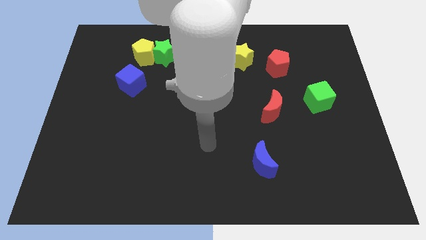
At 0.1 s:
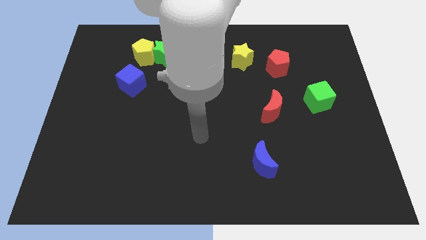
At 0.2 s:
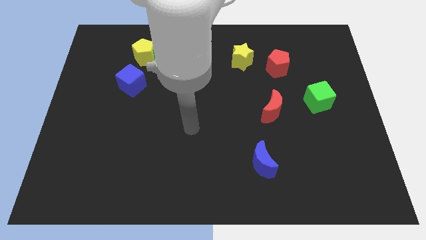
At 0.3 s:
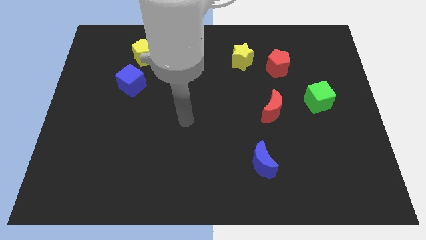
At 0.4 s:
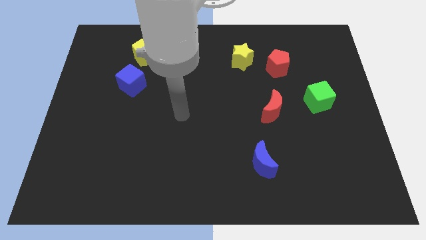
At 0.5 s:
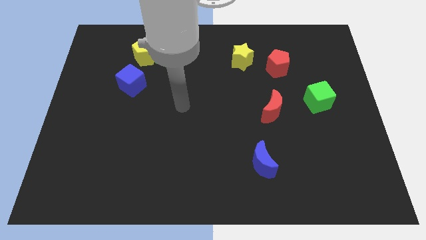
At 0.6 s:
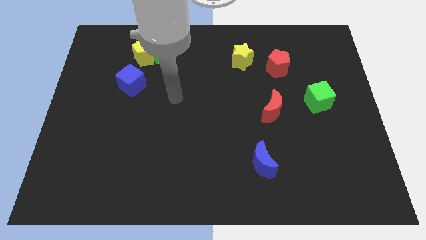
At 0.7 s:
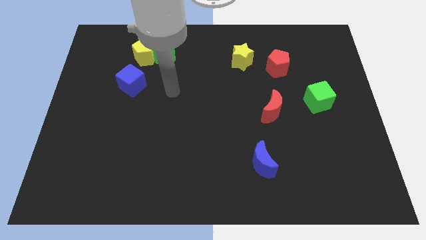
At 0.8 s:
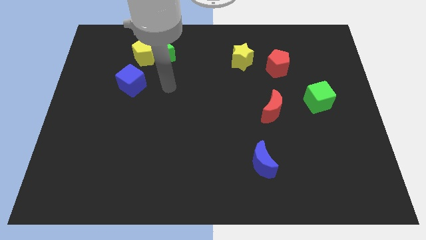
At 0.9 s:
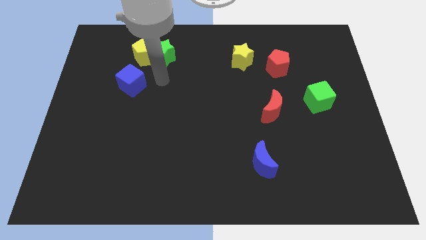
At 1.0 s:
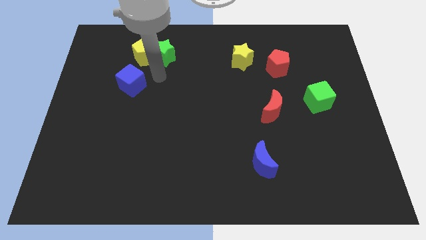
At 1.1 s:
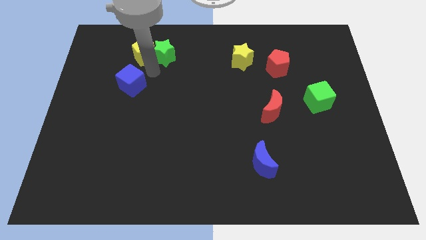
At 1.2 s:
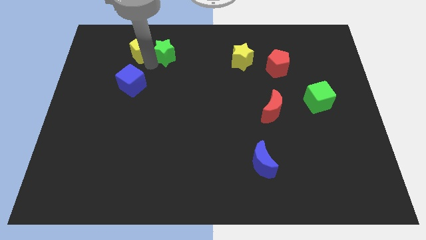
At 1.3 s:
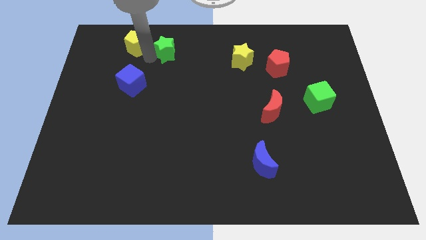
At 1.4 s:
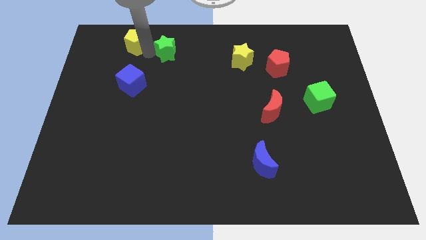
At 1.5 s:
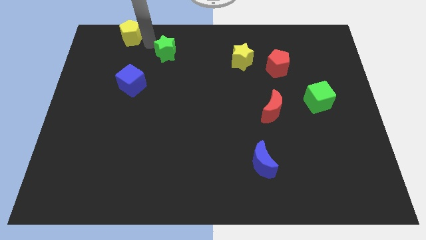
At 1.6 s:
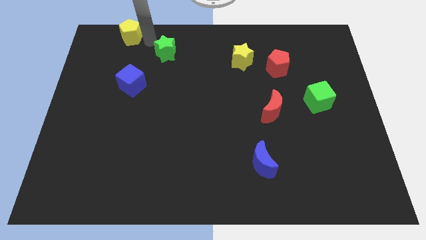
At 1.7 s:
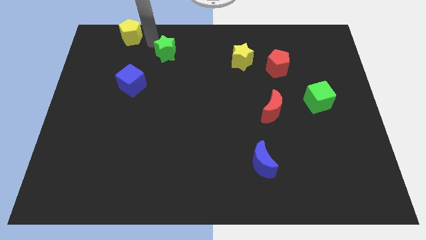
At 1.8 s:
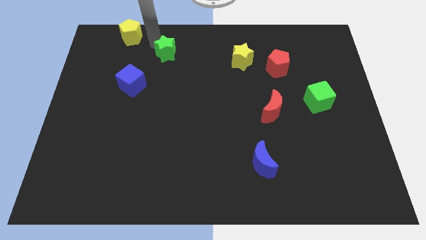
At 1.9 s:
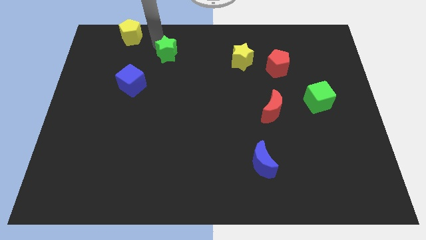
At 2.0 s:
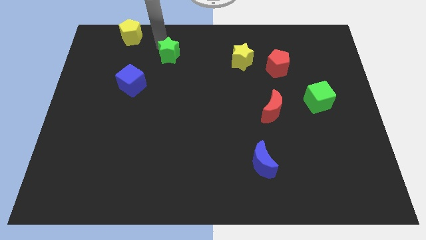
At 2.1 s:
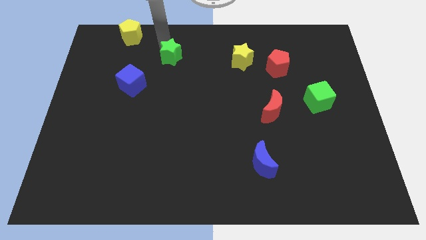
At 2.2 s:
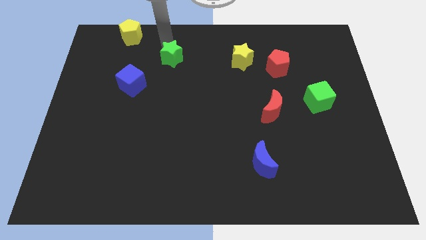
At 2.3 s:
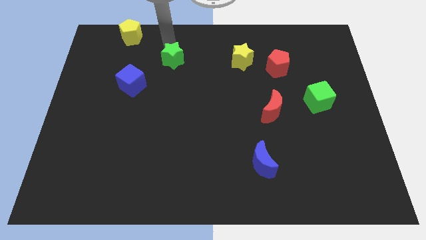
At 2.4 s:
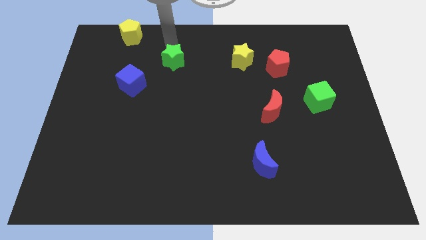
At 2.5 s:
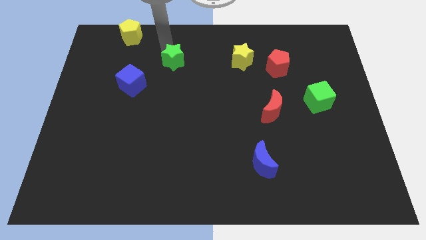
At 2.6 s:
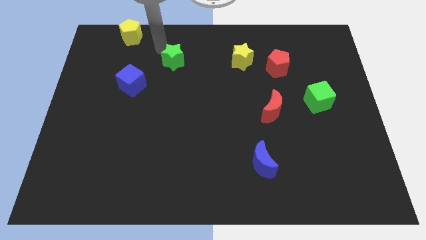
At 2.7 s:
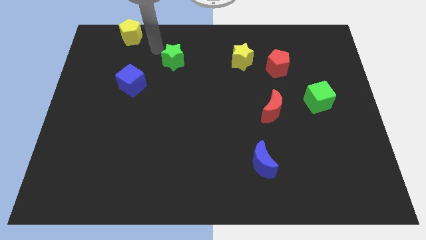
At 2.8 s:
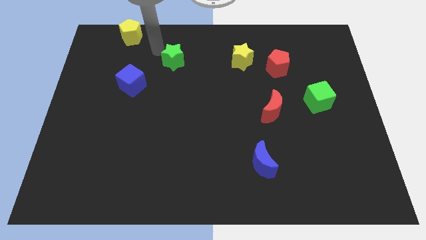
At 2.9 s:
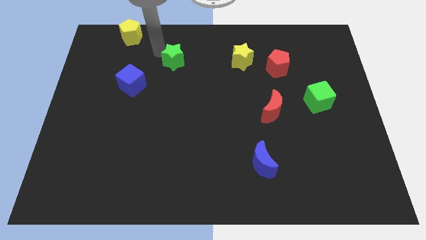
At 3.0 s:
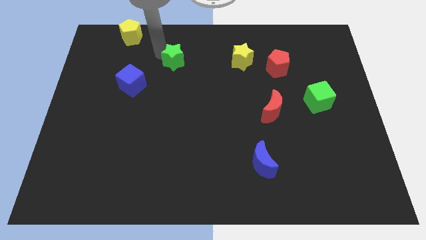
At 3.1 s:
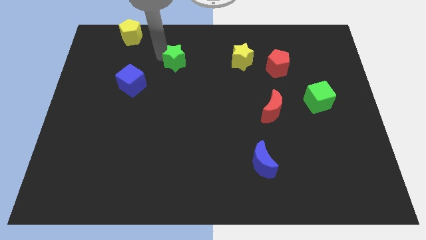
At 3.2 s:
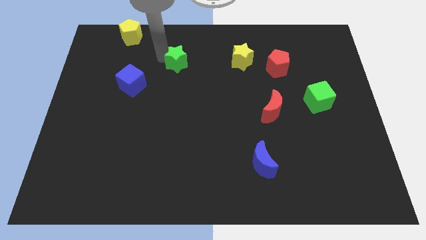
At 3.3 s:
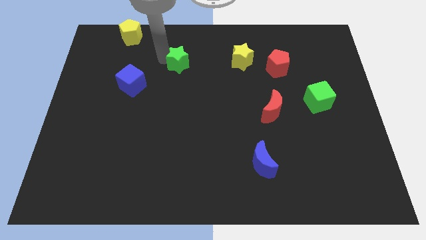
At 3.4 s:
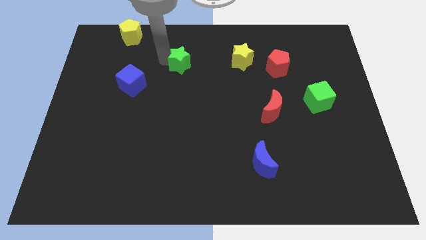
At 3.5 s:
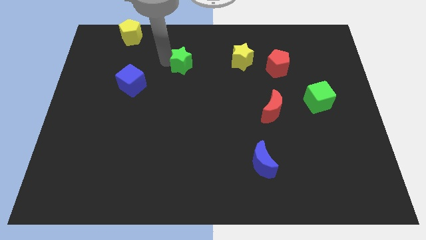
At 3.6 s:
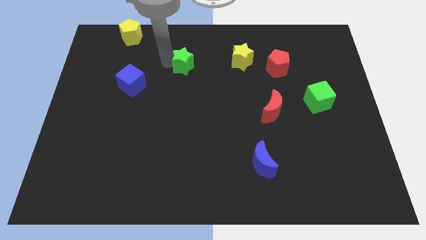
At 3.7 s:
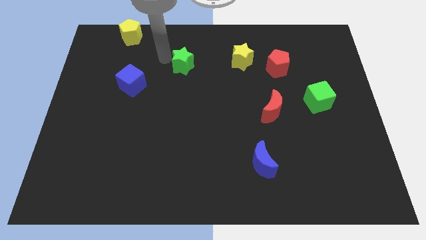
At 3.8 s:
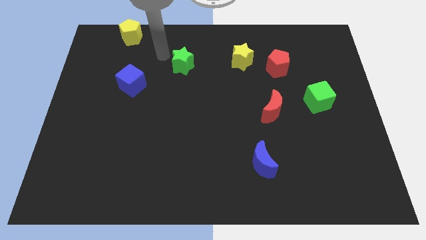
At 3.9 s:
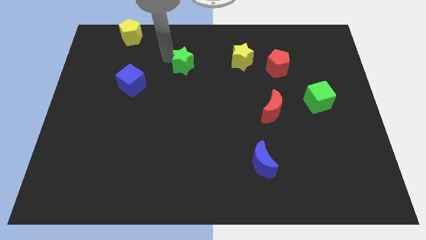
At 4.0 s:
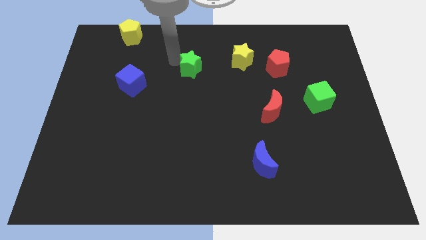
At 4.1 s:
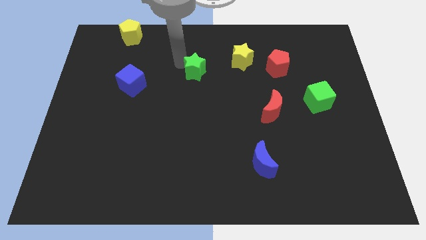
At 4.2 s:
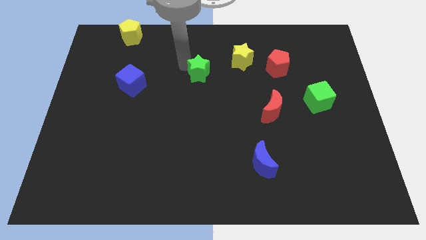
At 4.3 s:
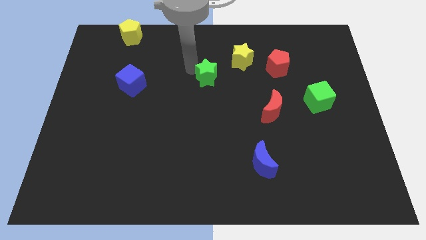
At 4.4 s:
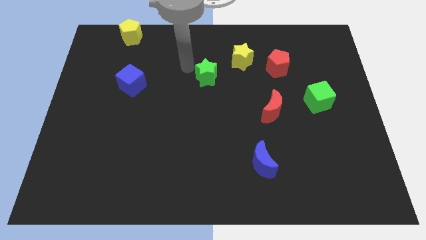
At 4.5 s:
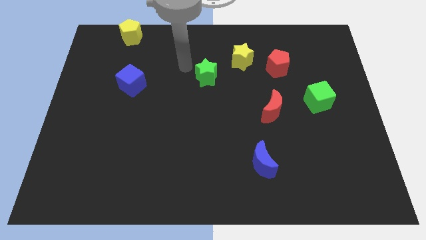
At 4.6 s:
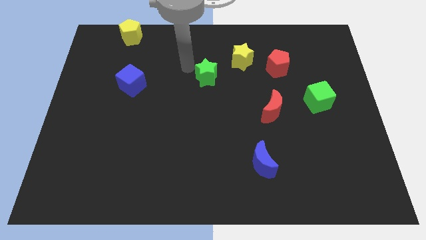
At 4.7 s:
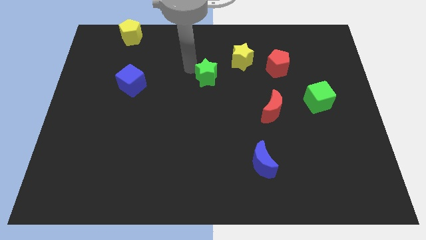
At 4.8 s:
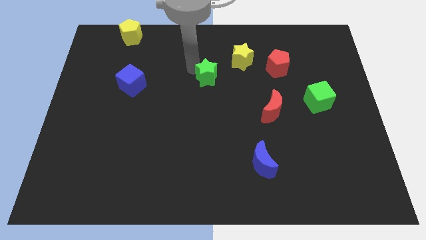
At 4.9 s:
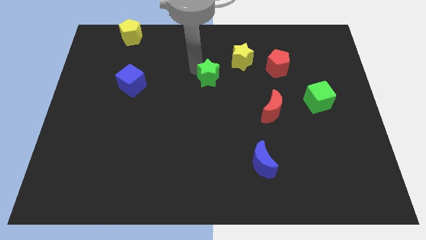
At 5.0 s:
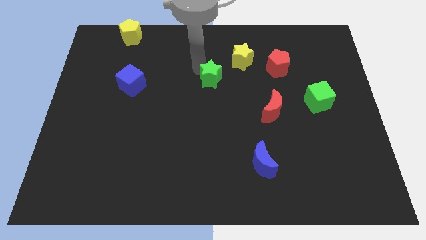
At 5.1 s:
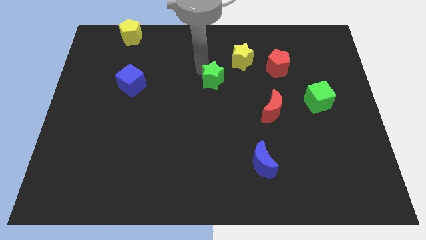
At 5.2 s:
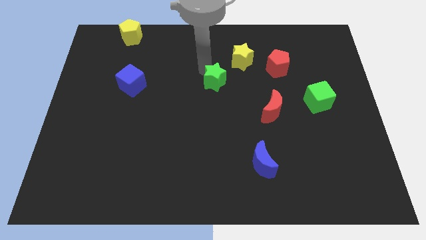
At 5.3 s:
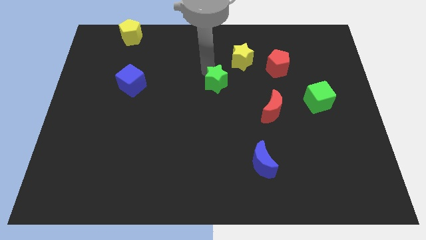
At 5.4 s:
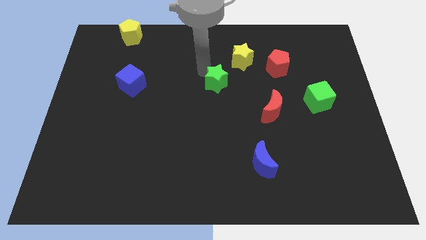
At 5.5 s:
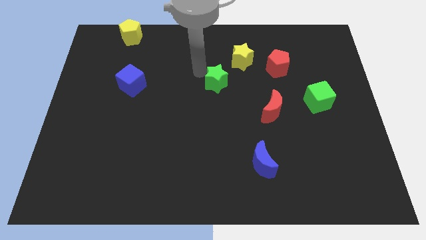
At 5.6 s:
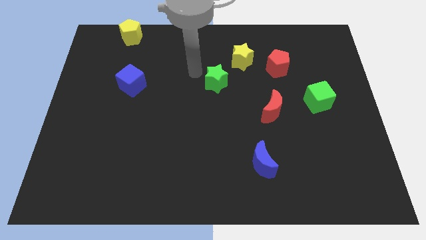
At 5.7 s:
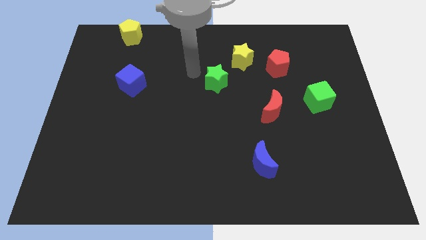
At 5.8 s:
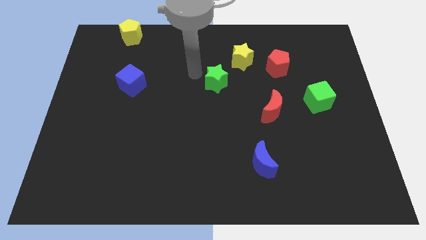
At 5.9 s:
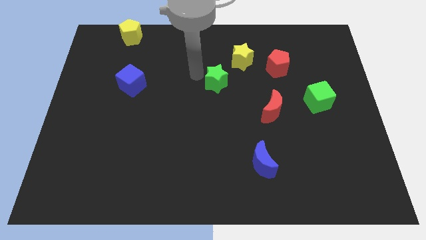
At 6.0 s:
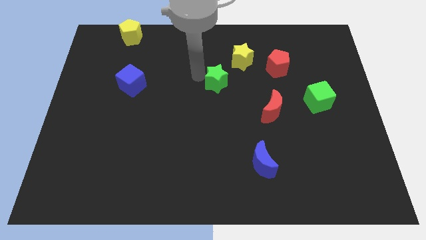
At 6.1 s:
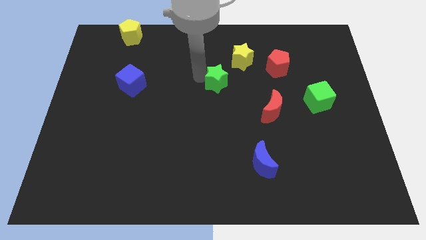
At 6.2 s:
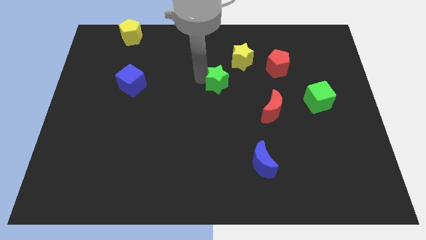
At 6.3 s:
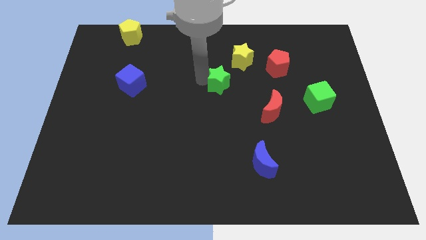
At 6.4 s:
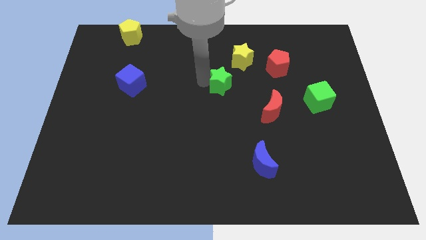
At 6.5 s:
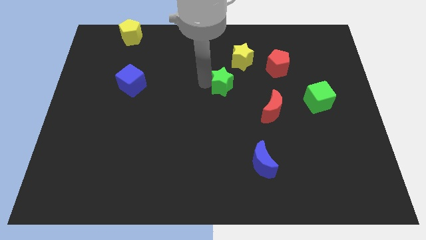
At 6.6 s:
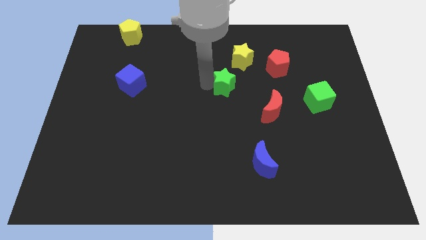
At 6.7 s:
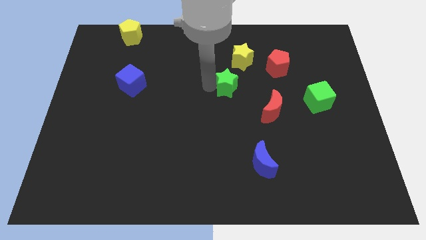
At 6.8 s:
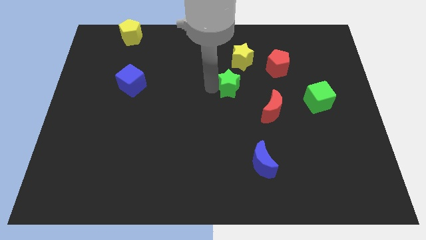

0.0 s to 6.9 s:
push the green star to the top left of the red moon

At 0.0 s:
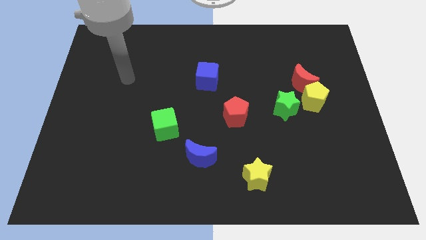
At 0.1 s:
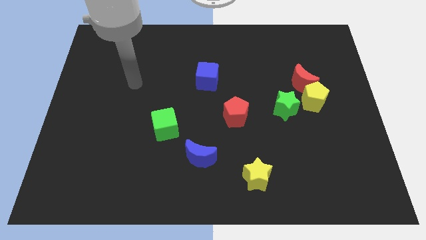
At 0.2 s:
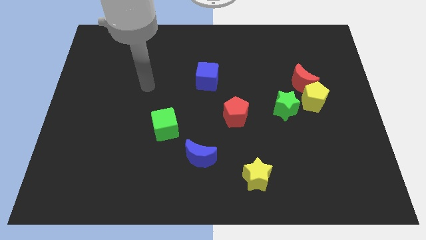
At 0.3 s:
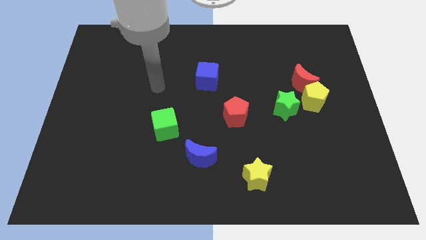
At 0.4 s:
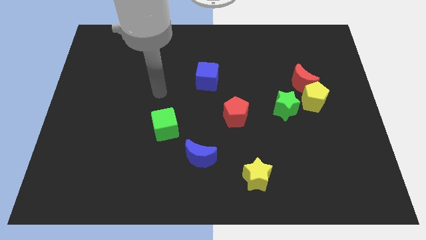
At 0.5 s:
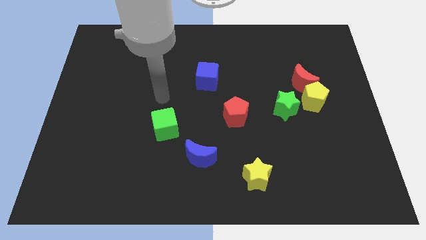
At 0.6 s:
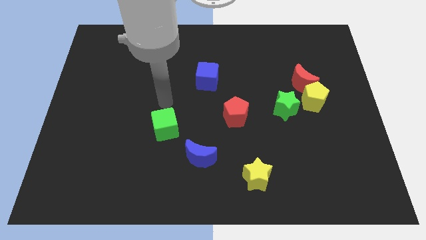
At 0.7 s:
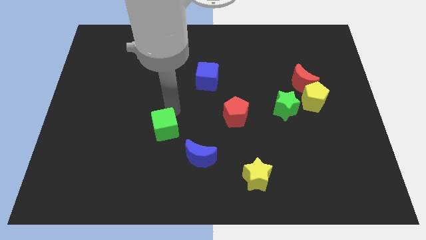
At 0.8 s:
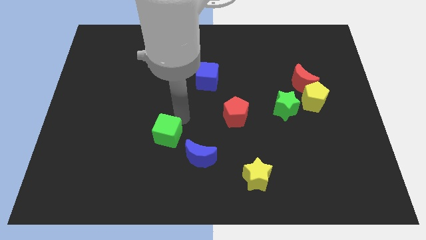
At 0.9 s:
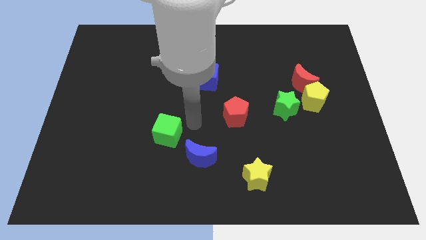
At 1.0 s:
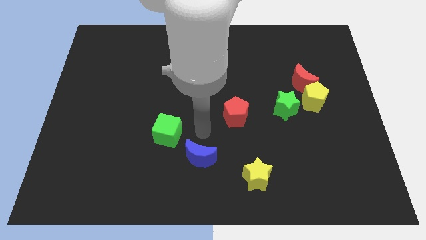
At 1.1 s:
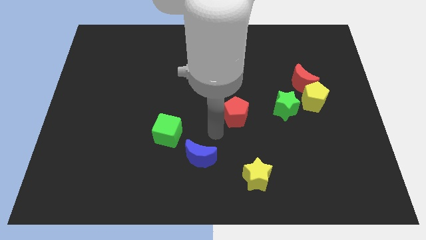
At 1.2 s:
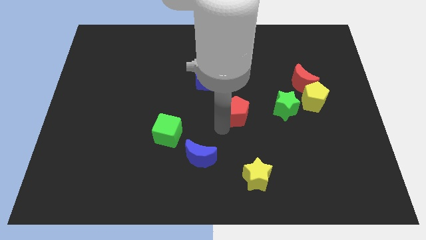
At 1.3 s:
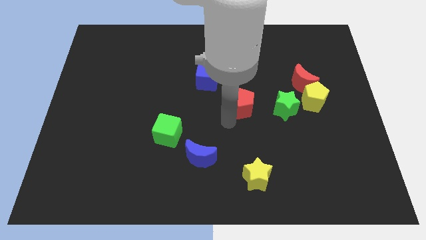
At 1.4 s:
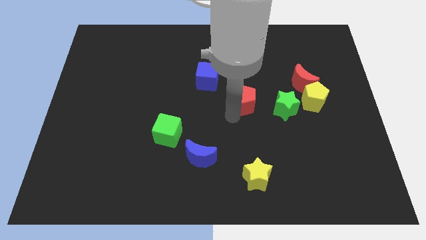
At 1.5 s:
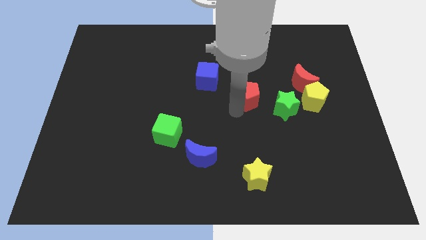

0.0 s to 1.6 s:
push the red pentagon to the top left of the green star
